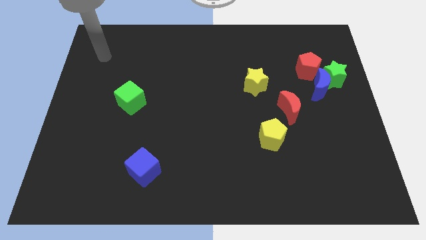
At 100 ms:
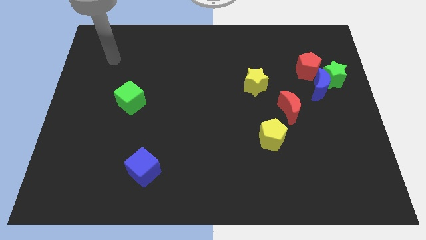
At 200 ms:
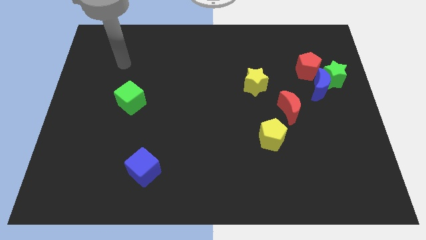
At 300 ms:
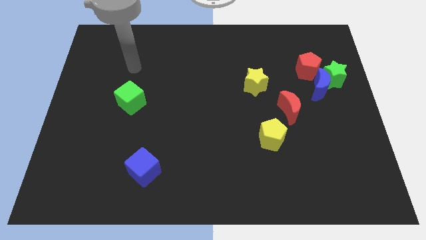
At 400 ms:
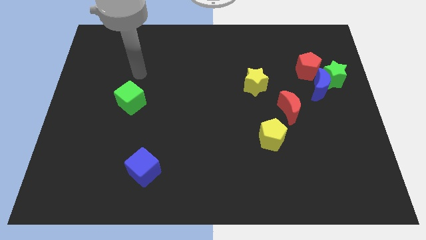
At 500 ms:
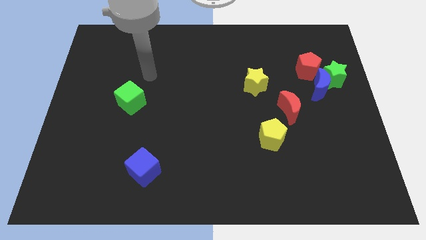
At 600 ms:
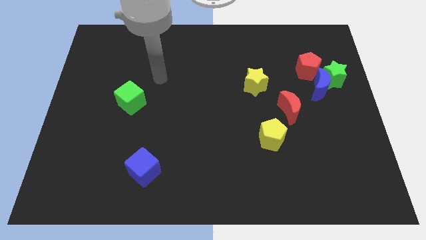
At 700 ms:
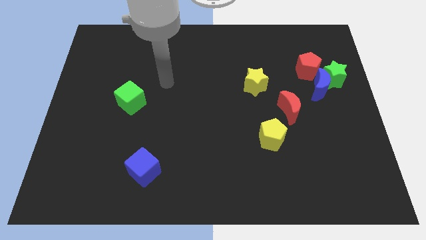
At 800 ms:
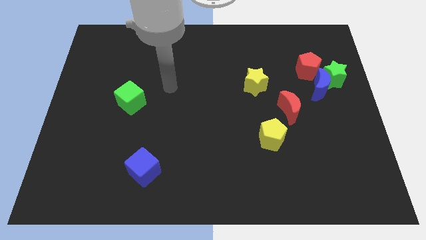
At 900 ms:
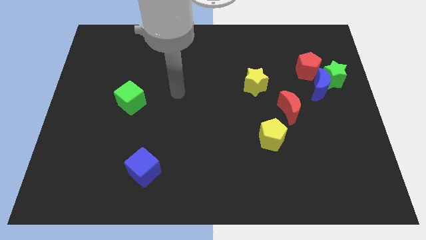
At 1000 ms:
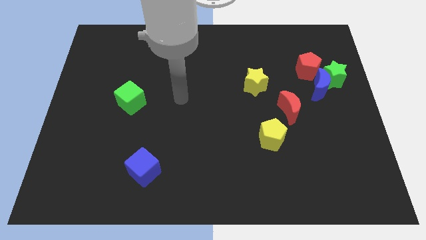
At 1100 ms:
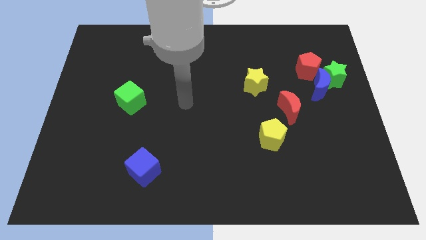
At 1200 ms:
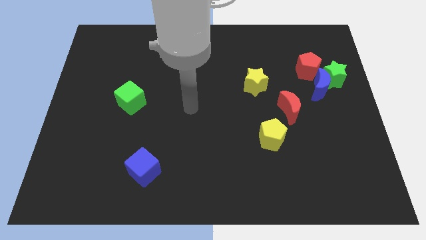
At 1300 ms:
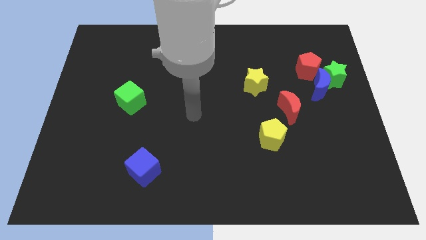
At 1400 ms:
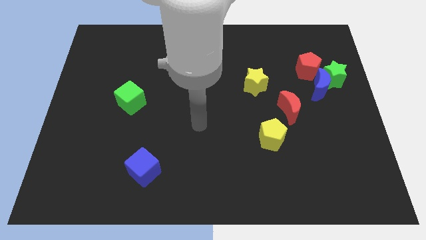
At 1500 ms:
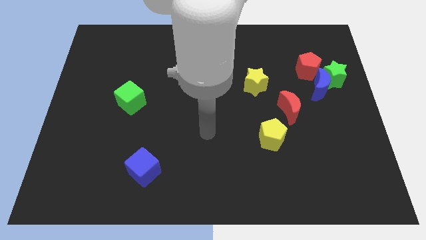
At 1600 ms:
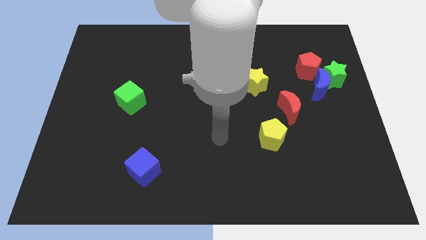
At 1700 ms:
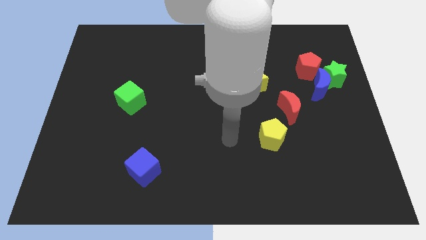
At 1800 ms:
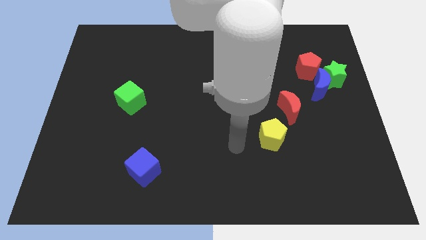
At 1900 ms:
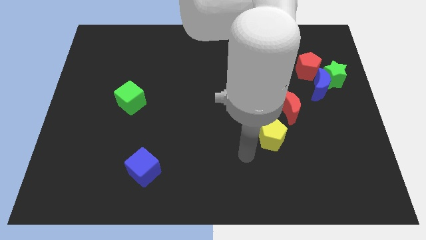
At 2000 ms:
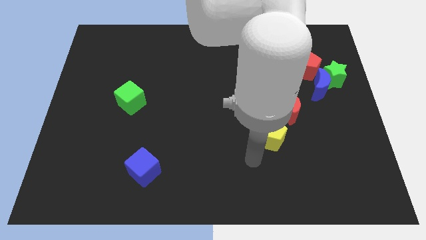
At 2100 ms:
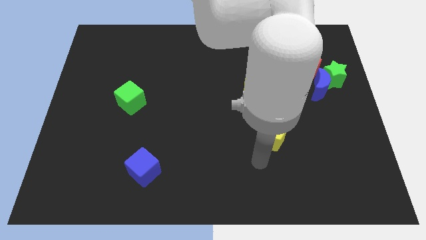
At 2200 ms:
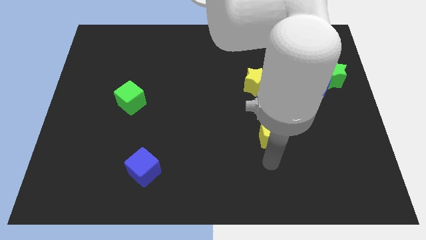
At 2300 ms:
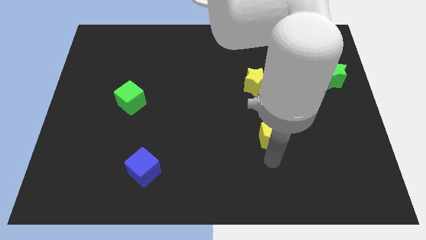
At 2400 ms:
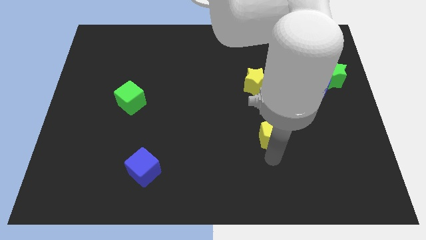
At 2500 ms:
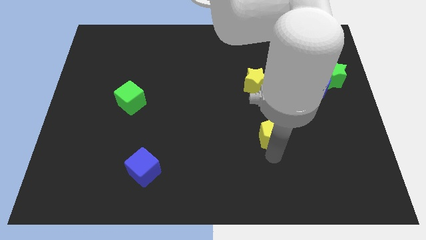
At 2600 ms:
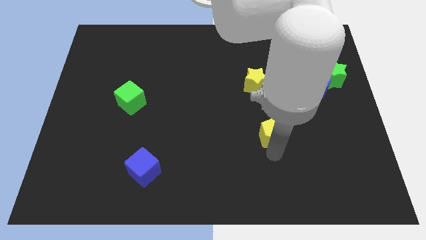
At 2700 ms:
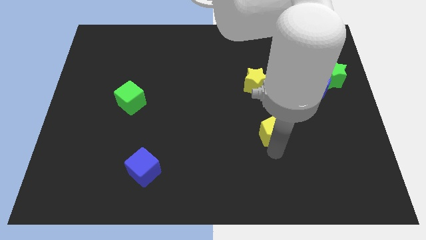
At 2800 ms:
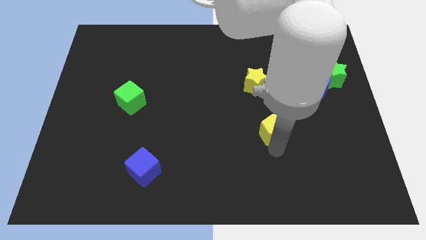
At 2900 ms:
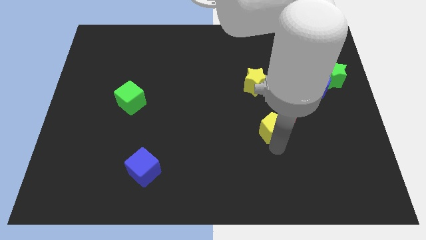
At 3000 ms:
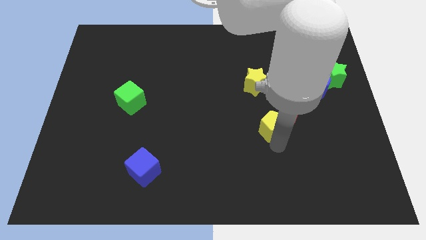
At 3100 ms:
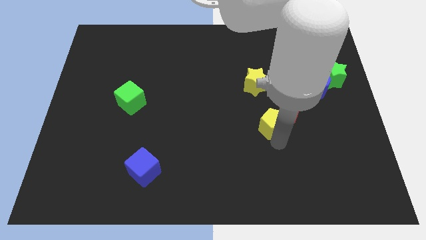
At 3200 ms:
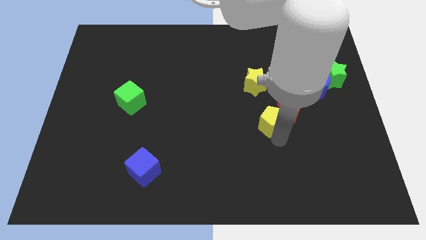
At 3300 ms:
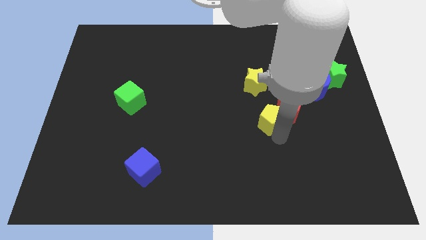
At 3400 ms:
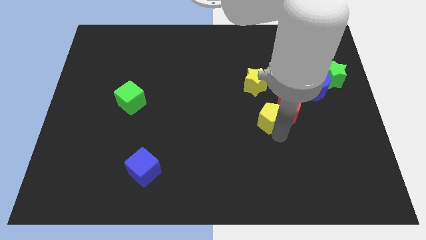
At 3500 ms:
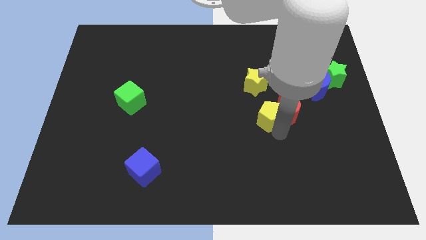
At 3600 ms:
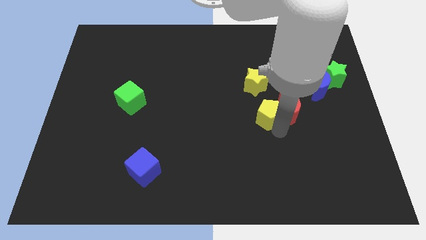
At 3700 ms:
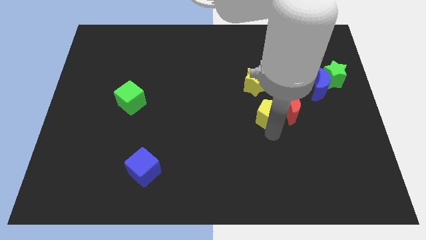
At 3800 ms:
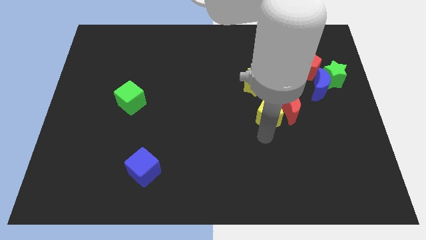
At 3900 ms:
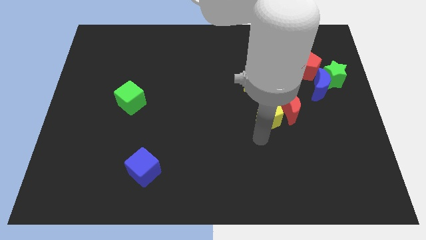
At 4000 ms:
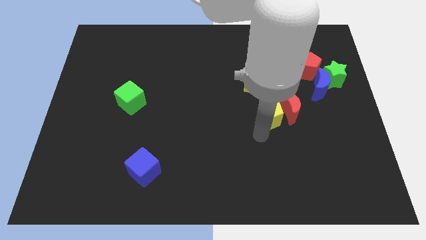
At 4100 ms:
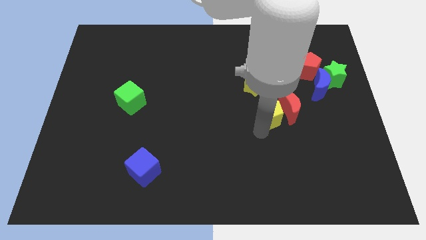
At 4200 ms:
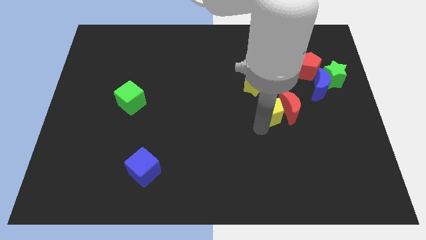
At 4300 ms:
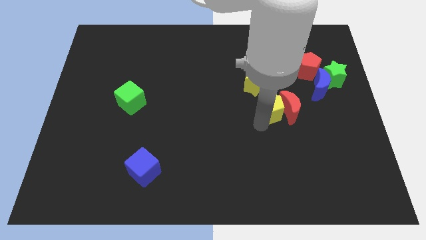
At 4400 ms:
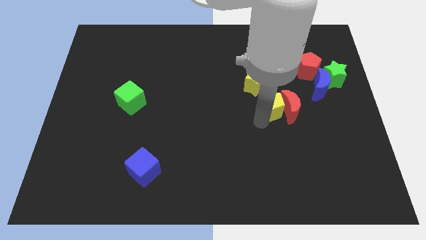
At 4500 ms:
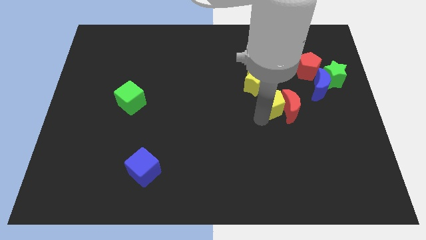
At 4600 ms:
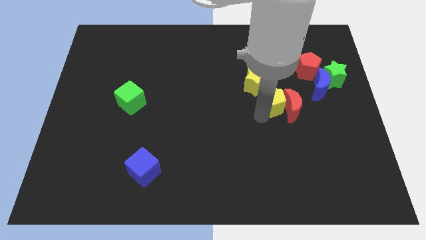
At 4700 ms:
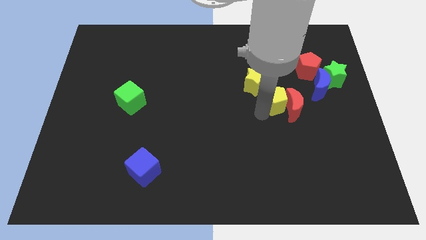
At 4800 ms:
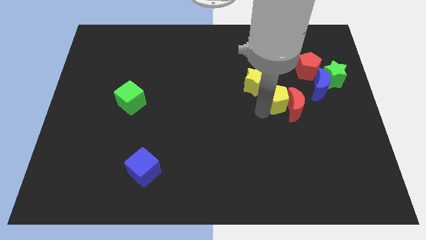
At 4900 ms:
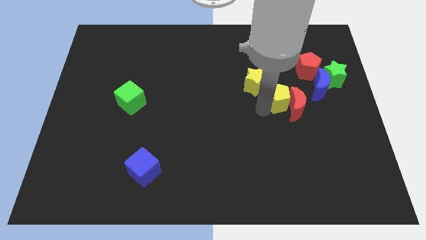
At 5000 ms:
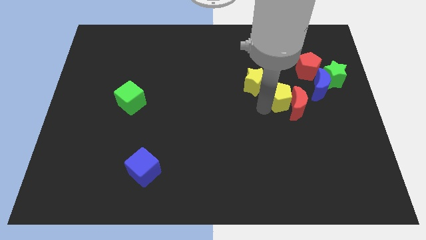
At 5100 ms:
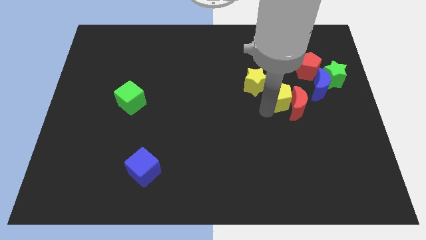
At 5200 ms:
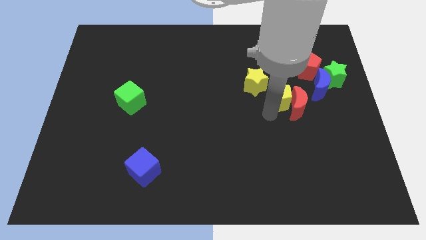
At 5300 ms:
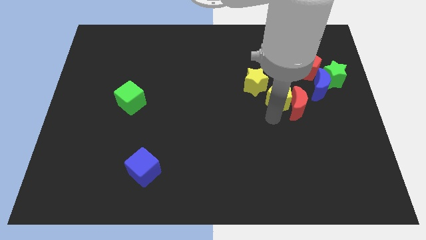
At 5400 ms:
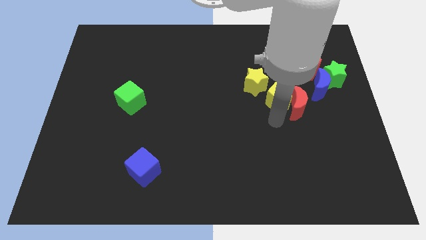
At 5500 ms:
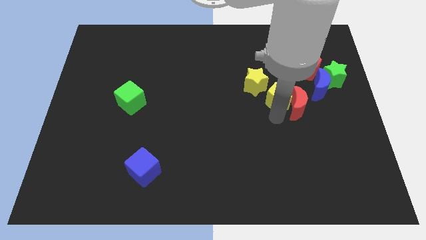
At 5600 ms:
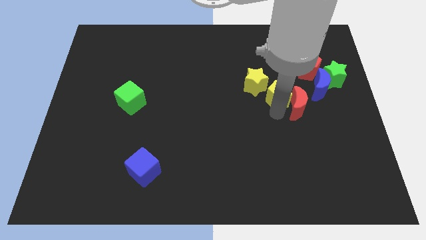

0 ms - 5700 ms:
put the yellow pentagon above the red moon

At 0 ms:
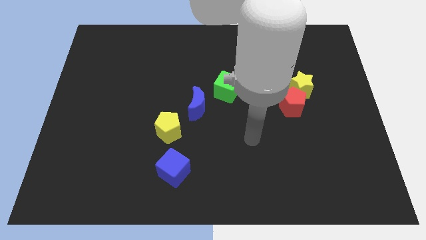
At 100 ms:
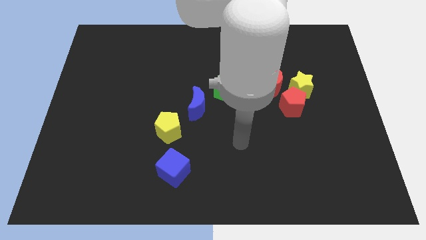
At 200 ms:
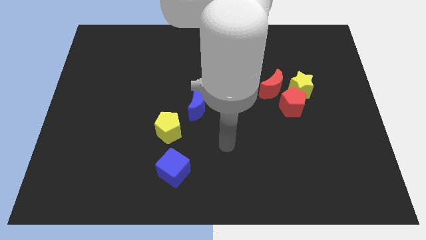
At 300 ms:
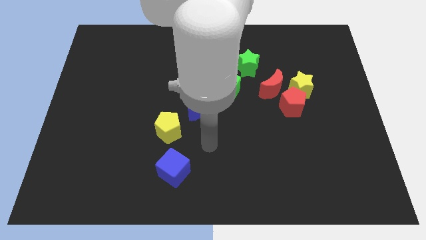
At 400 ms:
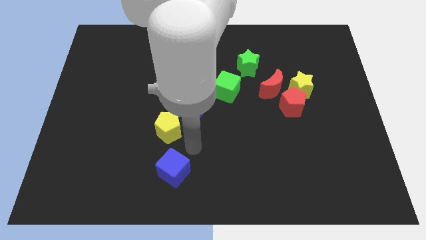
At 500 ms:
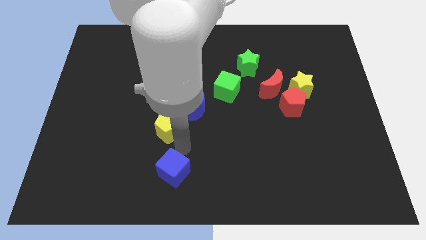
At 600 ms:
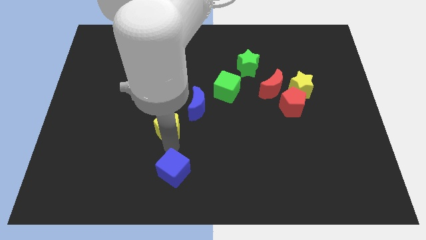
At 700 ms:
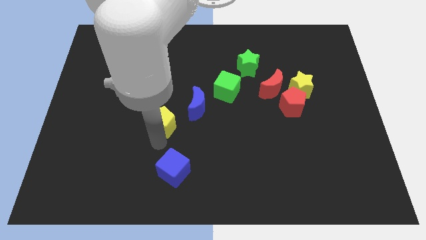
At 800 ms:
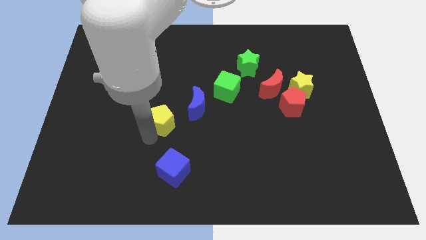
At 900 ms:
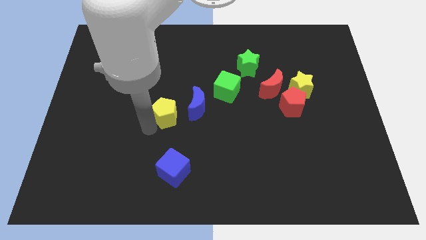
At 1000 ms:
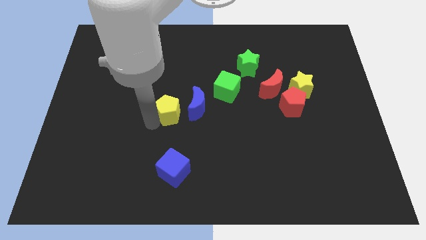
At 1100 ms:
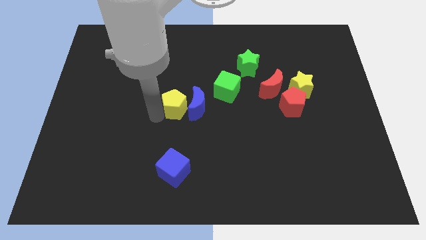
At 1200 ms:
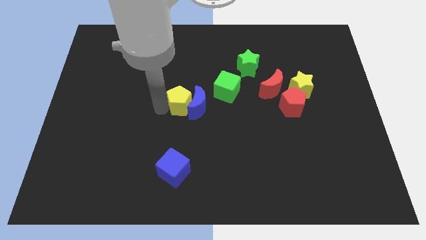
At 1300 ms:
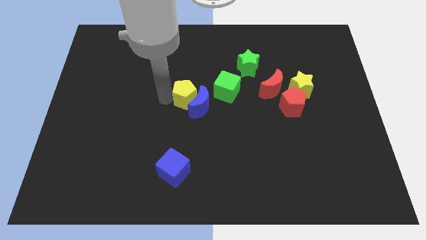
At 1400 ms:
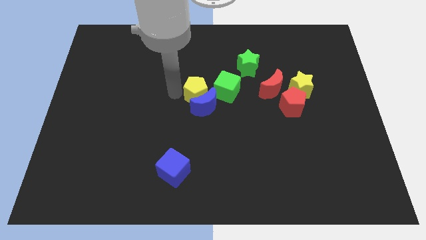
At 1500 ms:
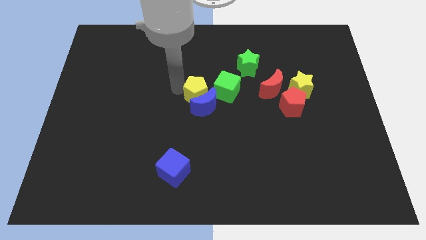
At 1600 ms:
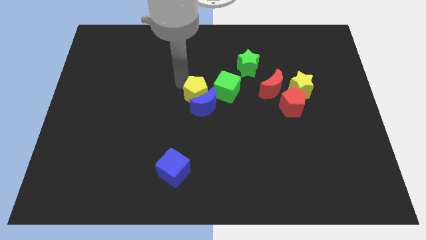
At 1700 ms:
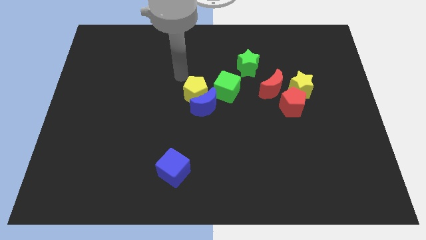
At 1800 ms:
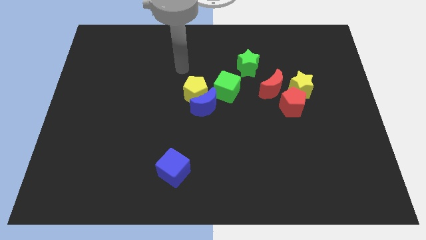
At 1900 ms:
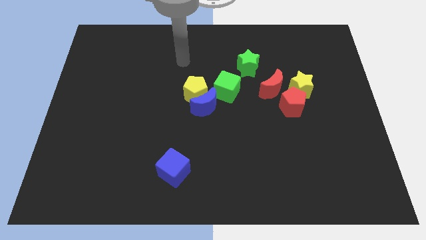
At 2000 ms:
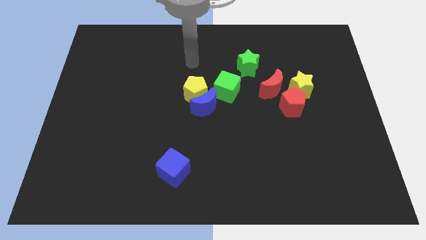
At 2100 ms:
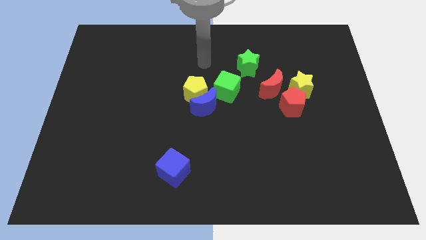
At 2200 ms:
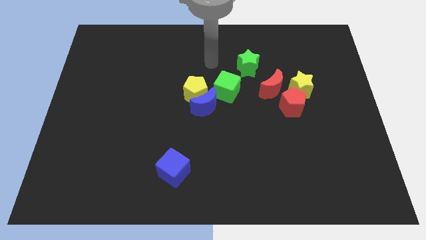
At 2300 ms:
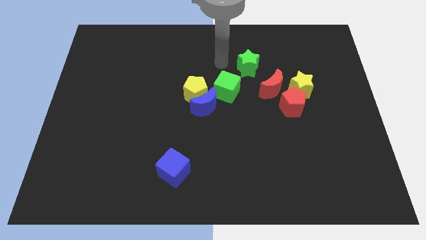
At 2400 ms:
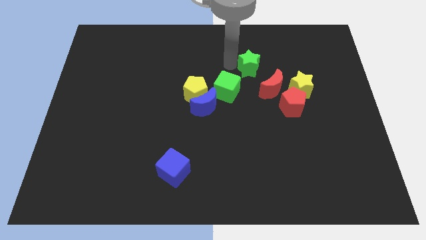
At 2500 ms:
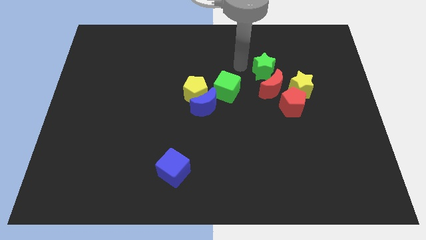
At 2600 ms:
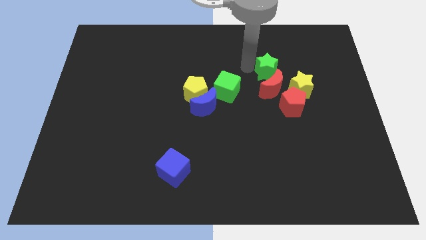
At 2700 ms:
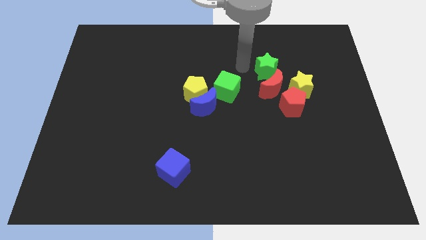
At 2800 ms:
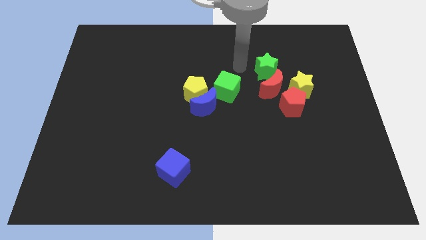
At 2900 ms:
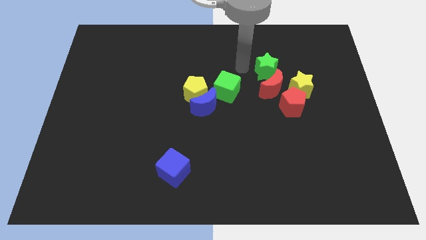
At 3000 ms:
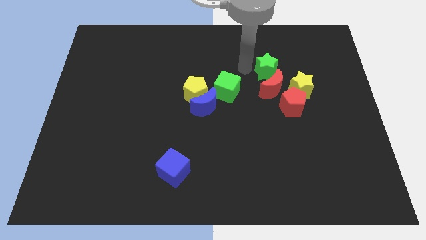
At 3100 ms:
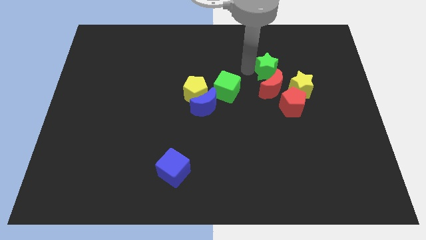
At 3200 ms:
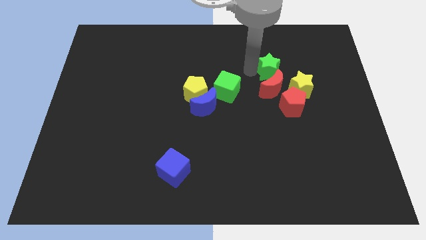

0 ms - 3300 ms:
slide the green star to the top right side of the red moon
